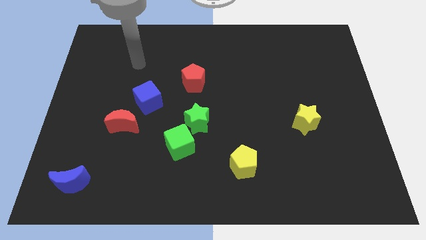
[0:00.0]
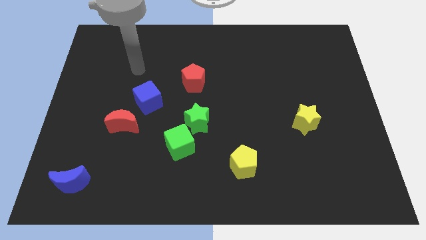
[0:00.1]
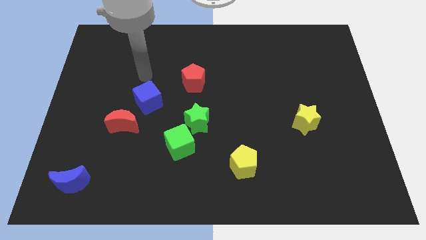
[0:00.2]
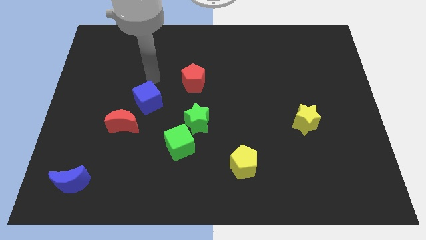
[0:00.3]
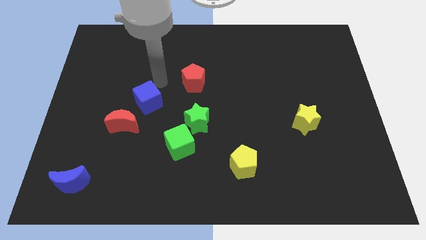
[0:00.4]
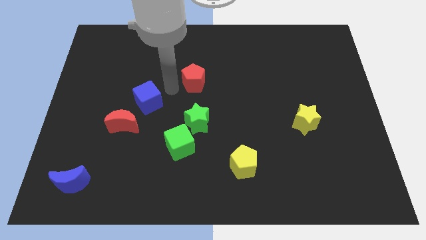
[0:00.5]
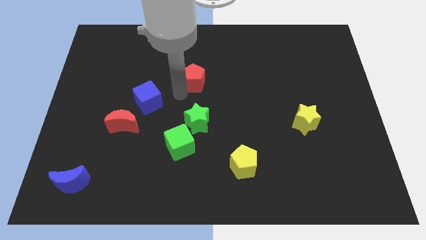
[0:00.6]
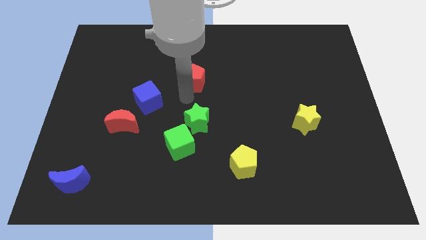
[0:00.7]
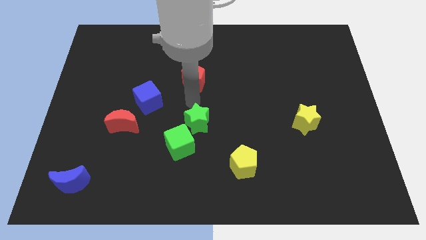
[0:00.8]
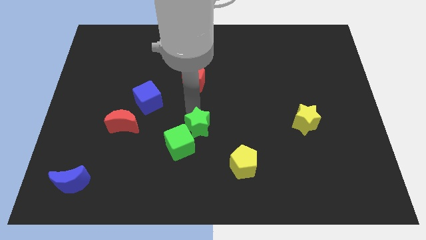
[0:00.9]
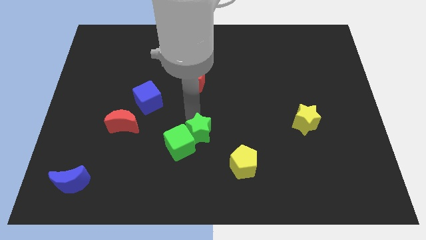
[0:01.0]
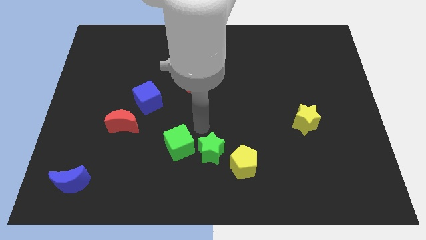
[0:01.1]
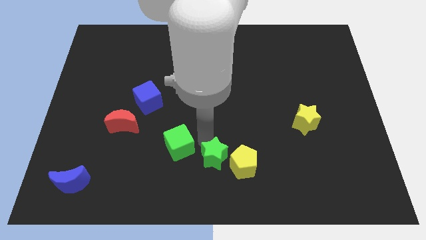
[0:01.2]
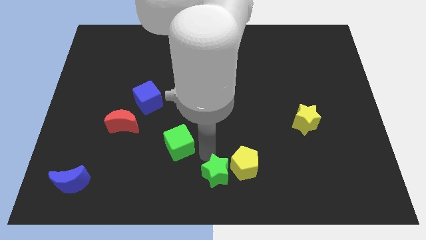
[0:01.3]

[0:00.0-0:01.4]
pull the green cube apart from the green star

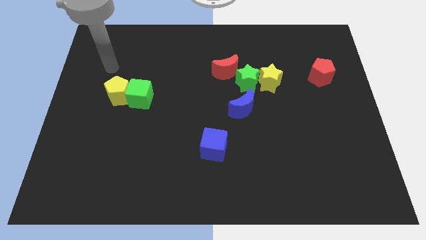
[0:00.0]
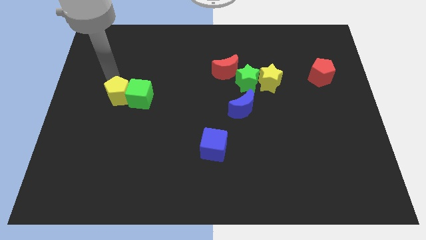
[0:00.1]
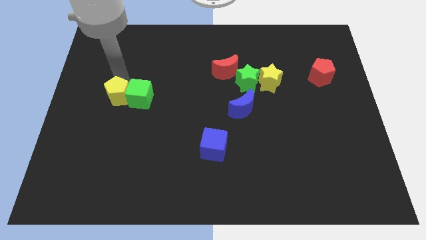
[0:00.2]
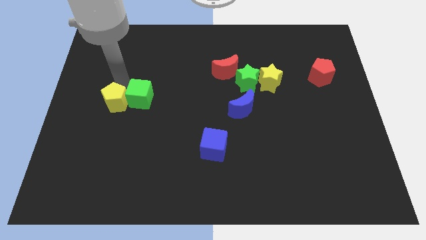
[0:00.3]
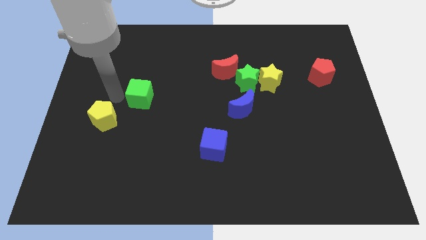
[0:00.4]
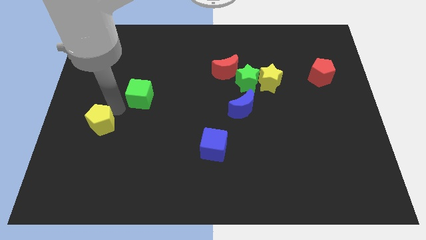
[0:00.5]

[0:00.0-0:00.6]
move the green cube away from the yellow pentagon

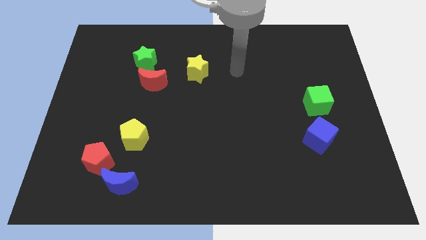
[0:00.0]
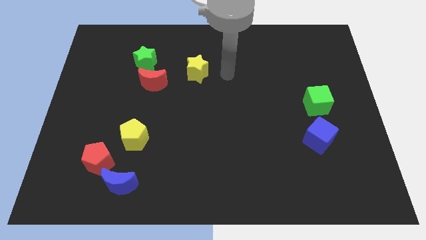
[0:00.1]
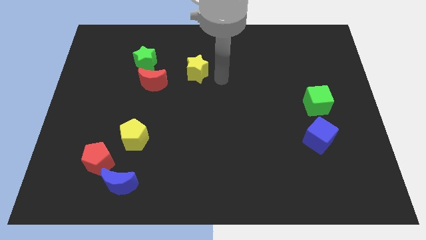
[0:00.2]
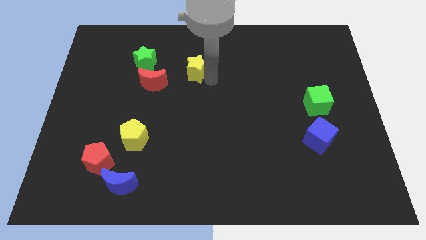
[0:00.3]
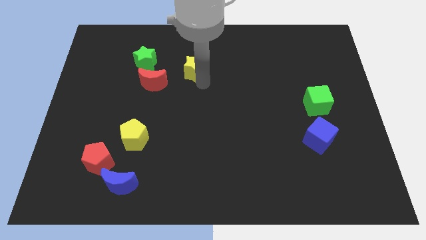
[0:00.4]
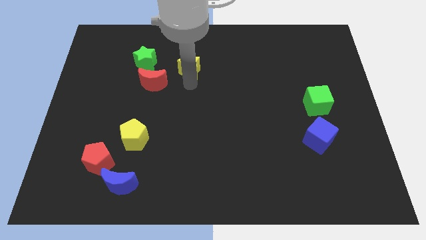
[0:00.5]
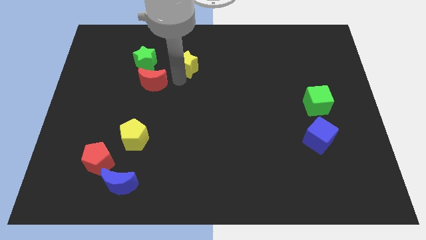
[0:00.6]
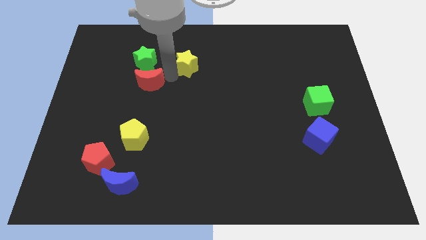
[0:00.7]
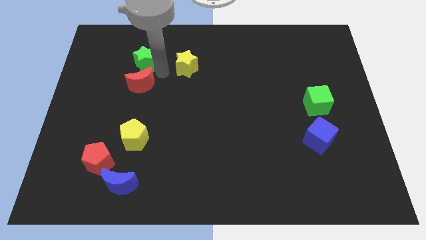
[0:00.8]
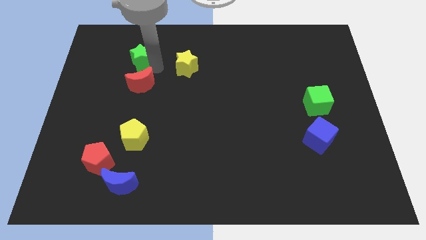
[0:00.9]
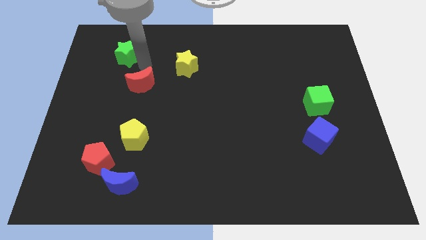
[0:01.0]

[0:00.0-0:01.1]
move the red moon away from the green star

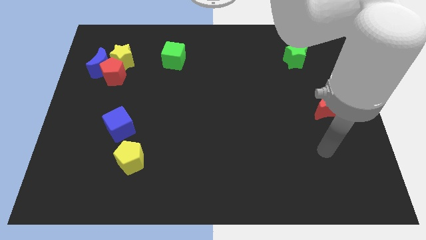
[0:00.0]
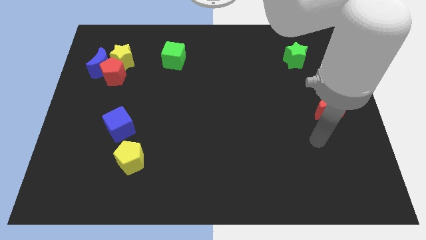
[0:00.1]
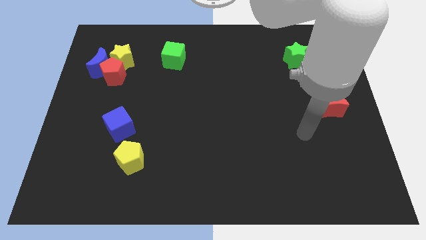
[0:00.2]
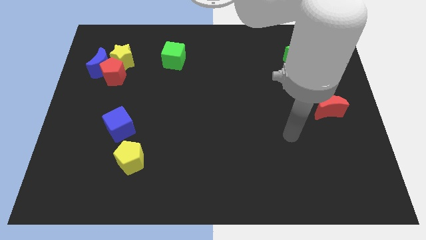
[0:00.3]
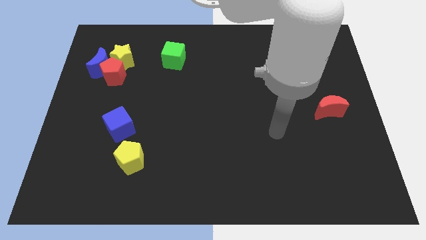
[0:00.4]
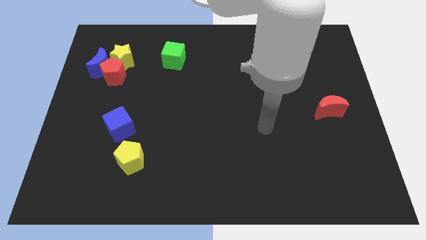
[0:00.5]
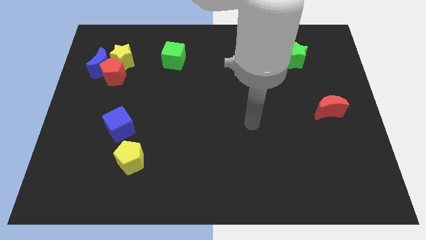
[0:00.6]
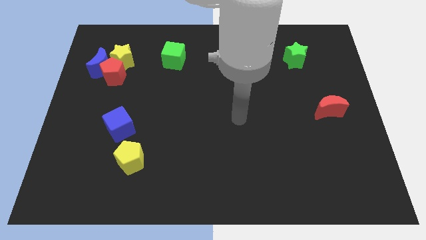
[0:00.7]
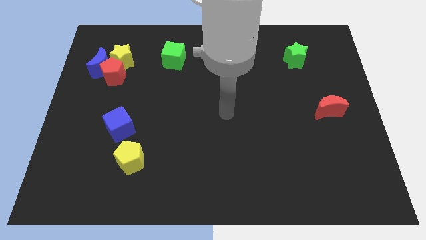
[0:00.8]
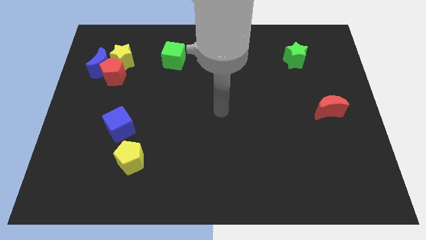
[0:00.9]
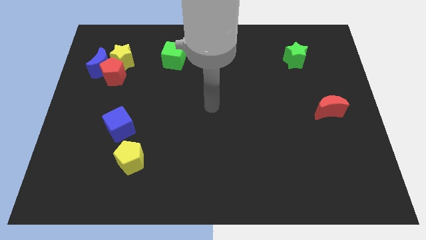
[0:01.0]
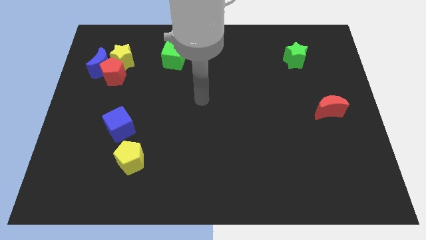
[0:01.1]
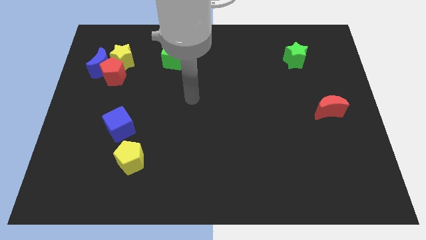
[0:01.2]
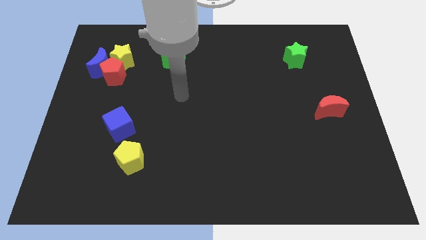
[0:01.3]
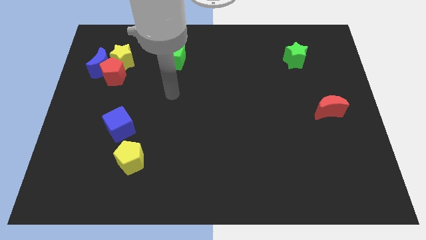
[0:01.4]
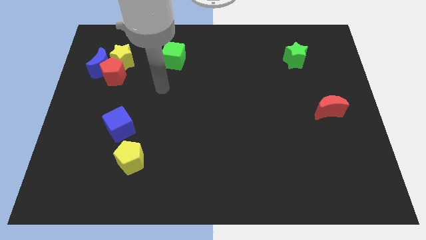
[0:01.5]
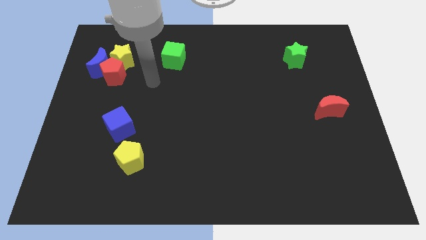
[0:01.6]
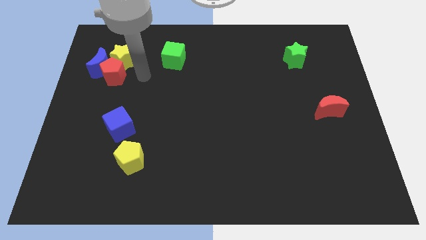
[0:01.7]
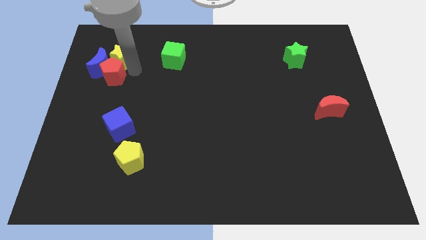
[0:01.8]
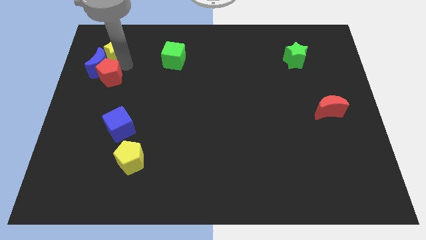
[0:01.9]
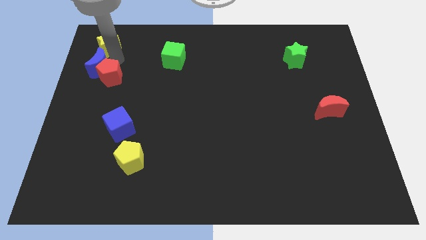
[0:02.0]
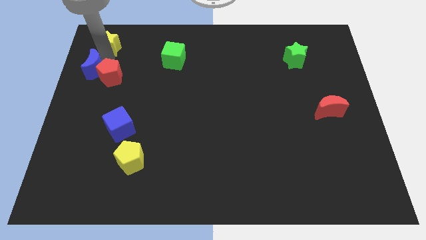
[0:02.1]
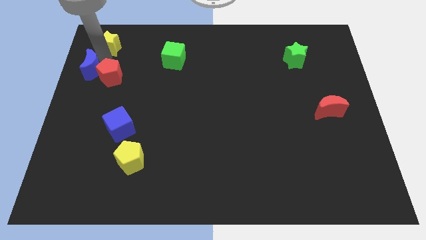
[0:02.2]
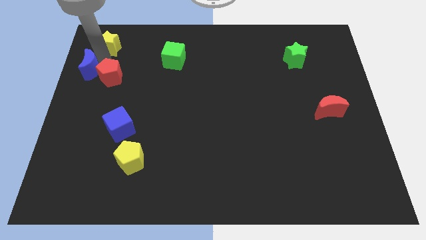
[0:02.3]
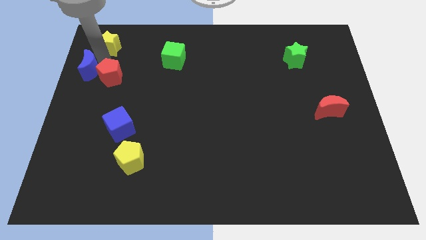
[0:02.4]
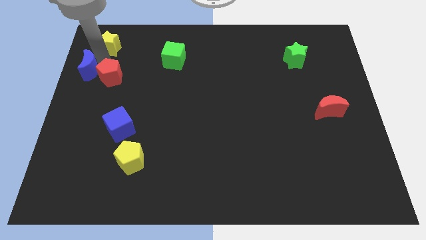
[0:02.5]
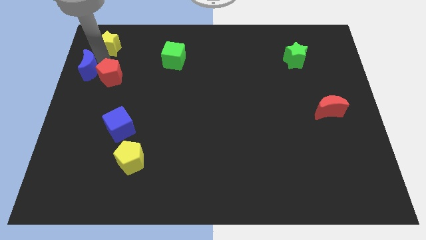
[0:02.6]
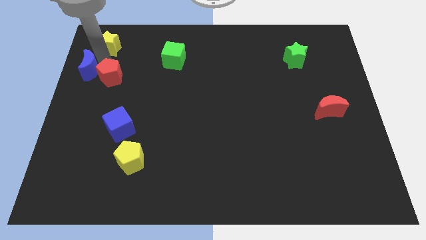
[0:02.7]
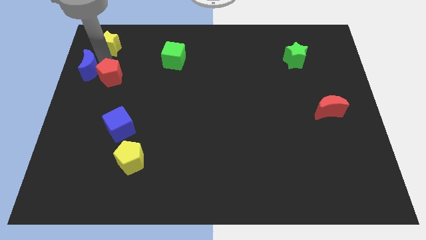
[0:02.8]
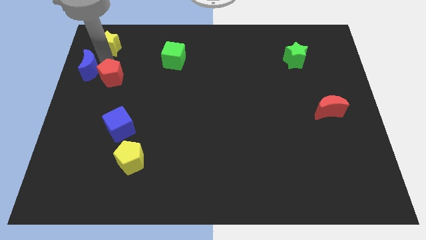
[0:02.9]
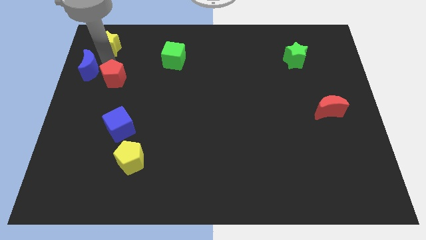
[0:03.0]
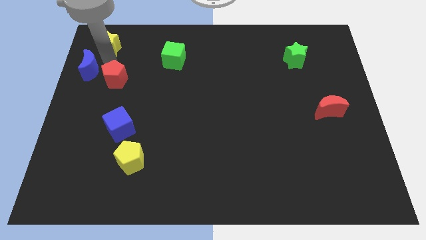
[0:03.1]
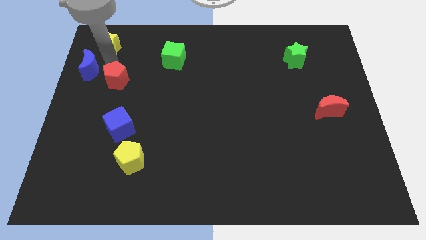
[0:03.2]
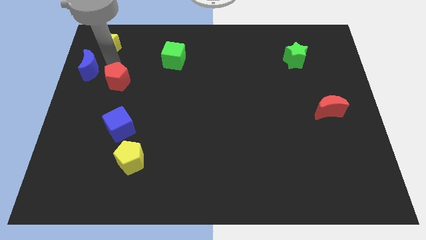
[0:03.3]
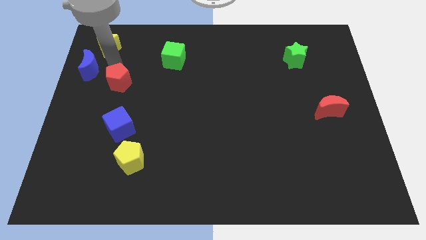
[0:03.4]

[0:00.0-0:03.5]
pull the red pentagon apart from the blue moon and yellow star

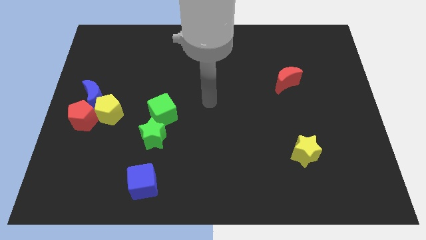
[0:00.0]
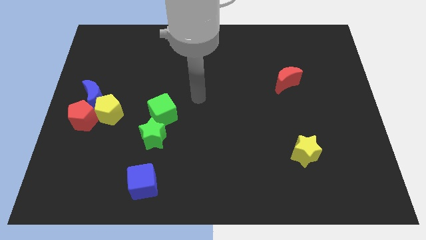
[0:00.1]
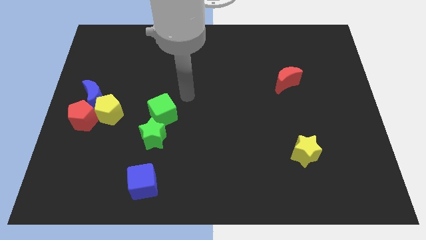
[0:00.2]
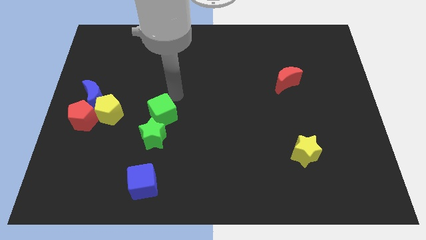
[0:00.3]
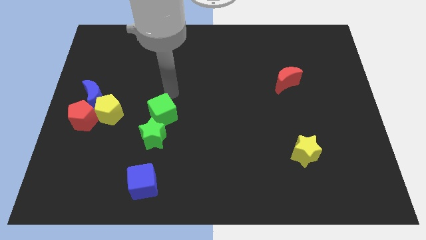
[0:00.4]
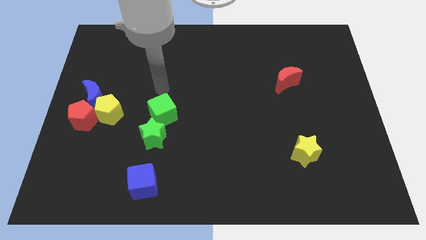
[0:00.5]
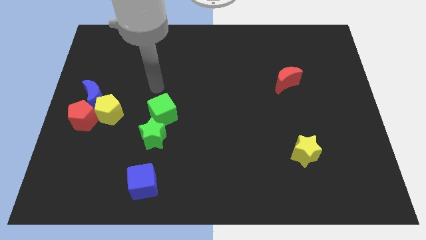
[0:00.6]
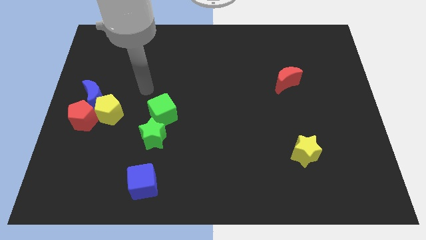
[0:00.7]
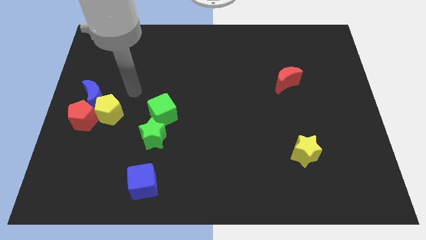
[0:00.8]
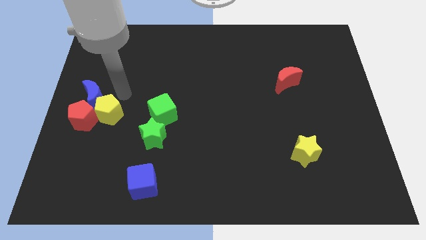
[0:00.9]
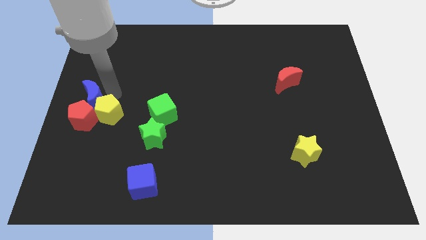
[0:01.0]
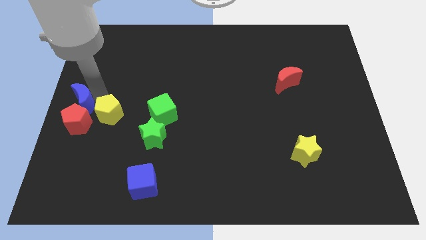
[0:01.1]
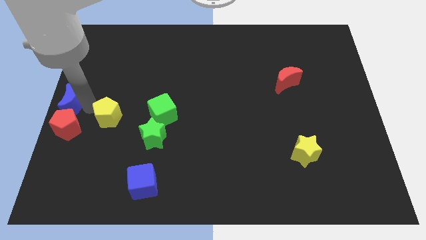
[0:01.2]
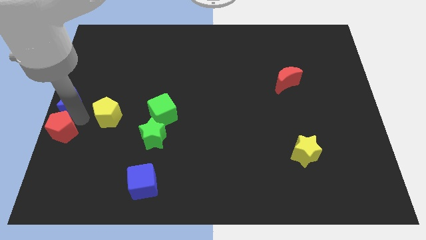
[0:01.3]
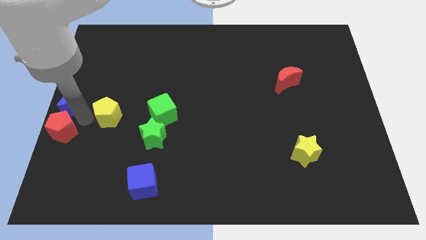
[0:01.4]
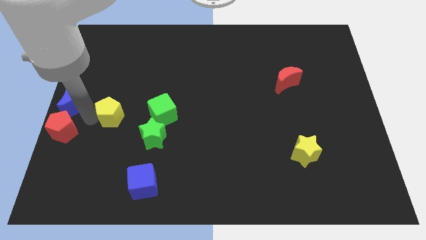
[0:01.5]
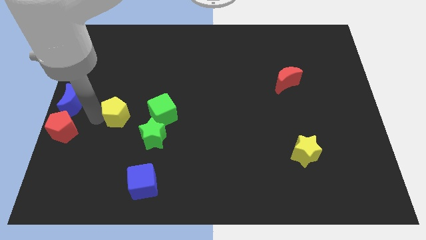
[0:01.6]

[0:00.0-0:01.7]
separate the yellow pentagon from the red pentagon and blue moon

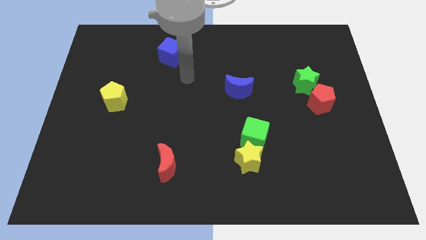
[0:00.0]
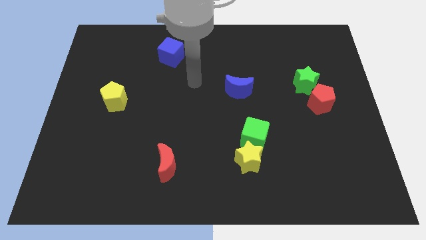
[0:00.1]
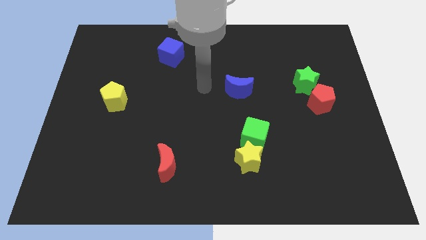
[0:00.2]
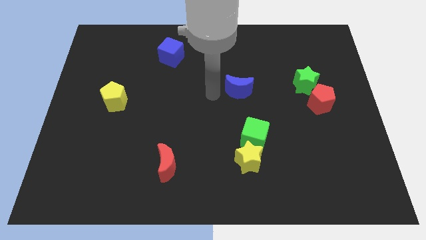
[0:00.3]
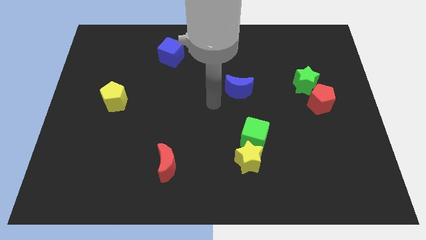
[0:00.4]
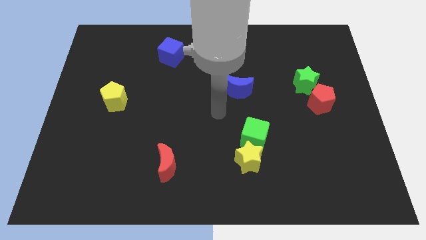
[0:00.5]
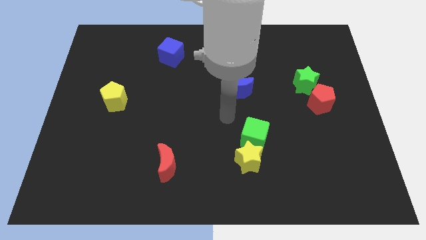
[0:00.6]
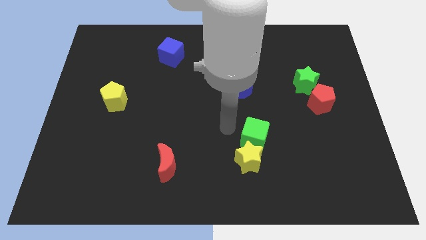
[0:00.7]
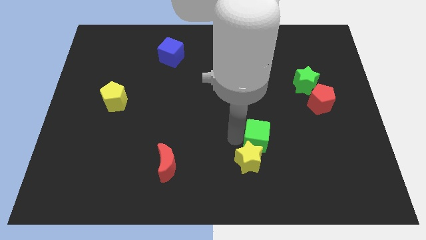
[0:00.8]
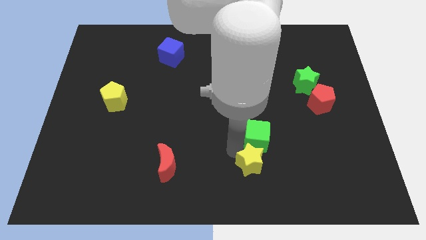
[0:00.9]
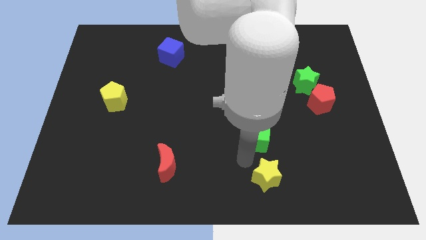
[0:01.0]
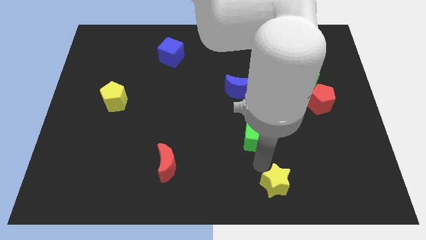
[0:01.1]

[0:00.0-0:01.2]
separate the green cube from the yellow star
